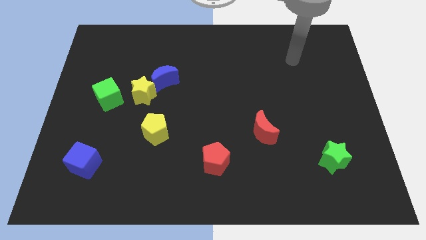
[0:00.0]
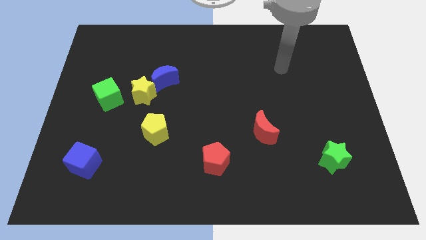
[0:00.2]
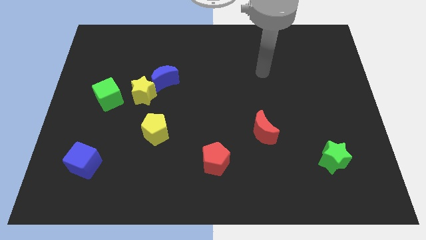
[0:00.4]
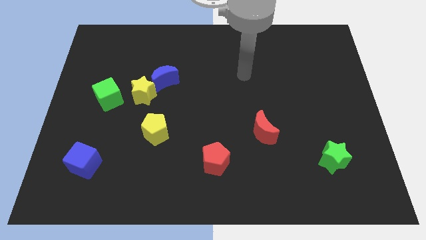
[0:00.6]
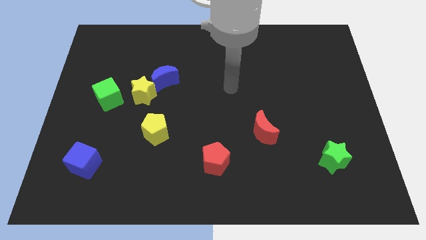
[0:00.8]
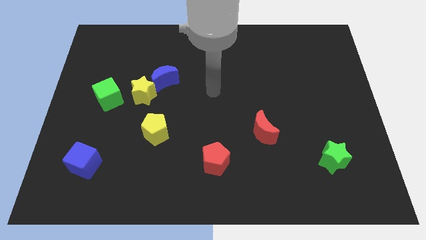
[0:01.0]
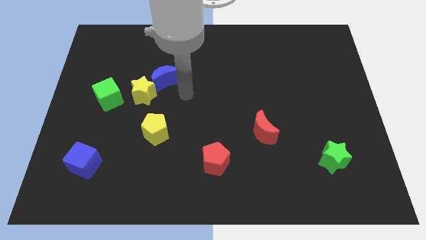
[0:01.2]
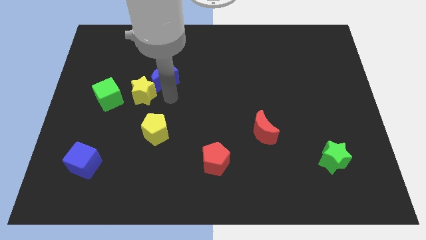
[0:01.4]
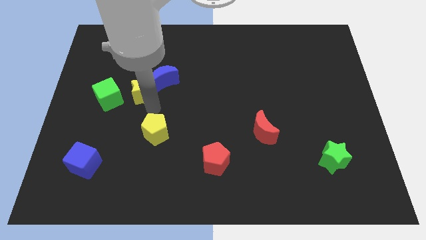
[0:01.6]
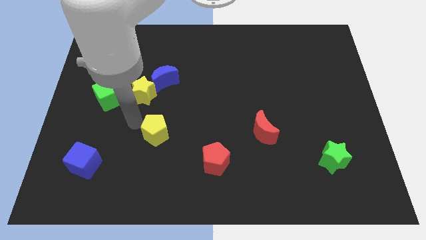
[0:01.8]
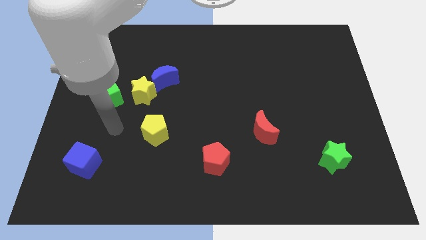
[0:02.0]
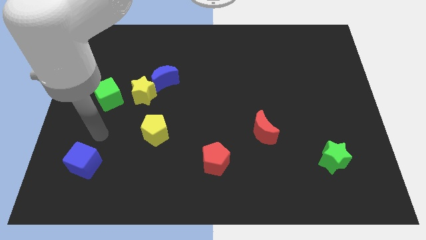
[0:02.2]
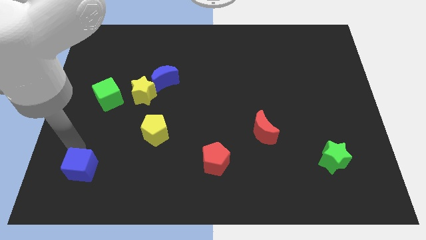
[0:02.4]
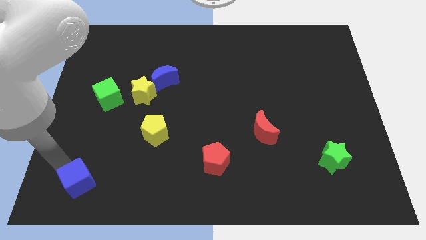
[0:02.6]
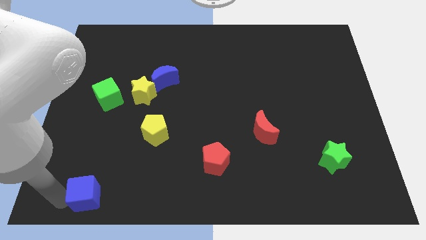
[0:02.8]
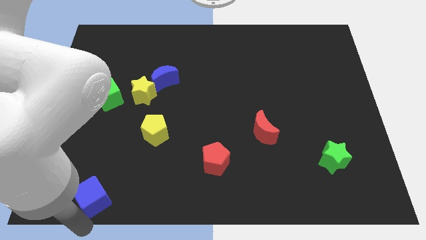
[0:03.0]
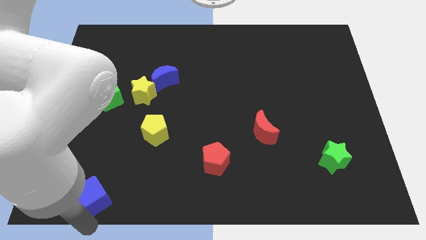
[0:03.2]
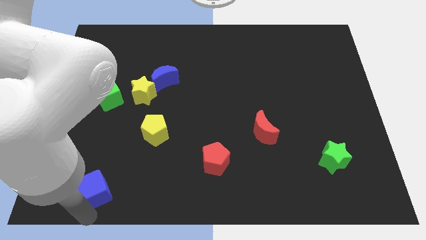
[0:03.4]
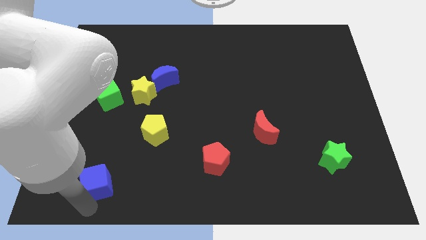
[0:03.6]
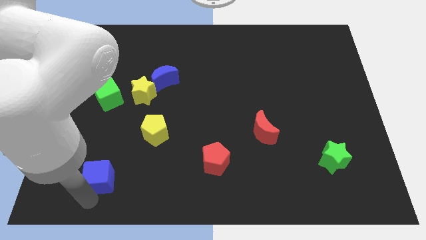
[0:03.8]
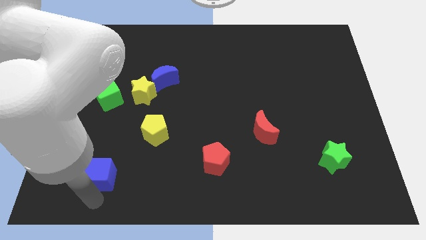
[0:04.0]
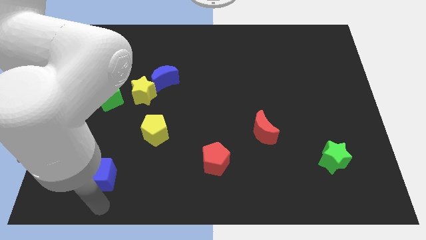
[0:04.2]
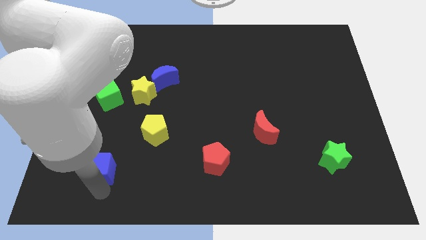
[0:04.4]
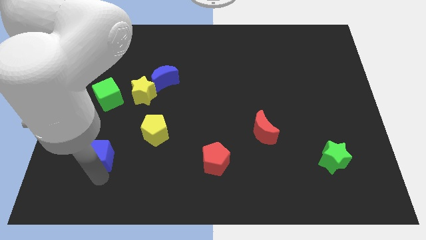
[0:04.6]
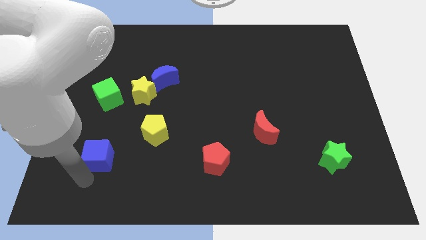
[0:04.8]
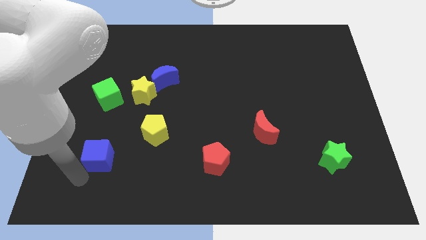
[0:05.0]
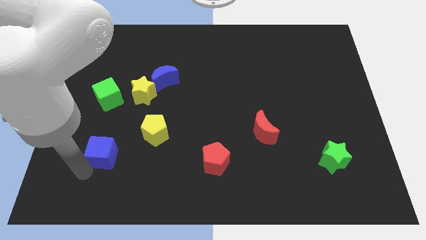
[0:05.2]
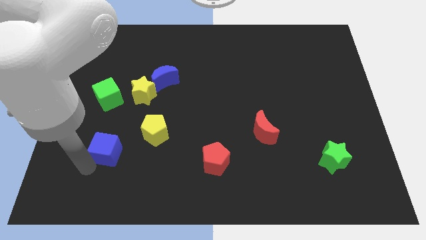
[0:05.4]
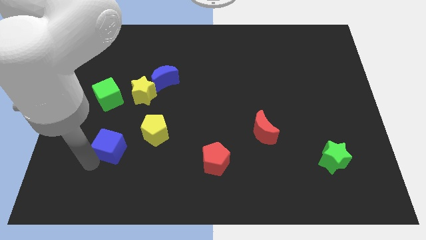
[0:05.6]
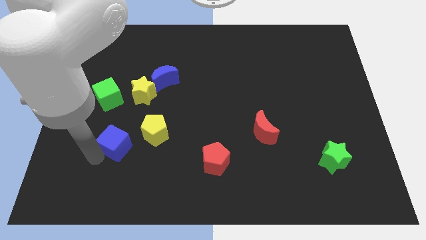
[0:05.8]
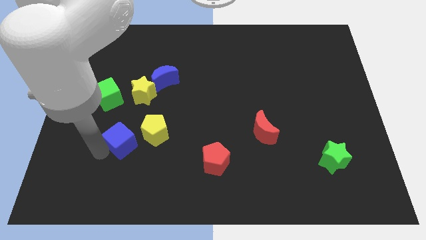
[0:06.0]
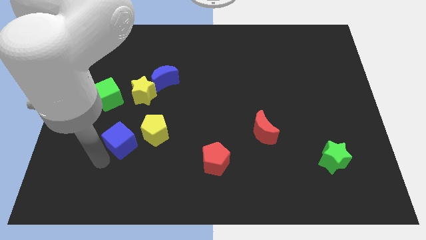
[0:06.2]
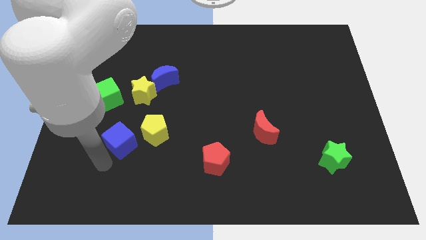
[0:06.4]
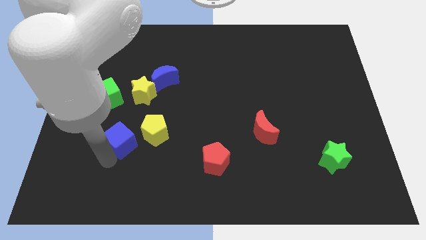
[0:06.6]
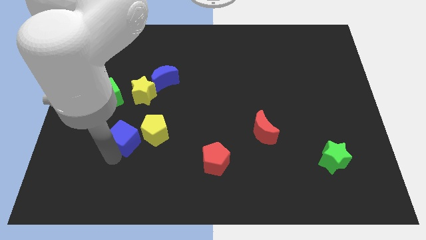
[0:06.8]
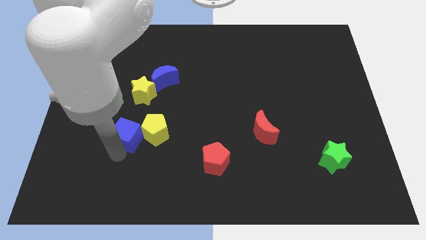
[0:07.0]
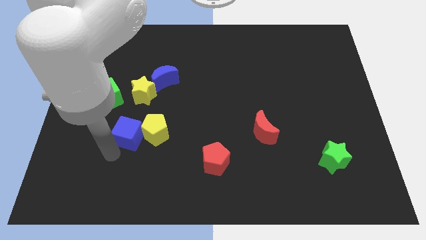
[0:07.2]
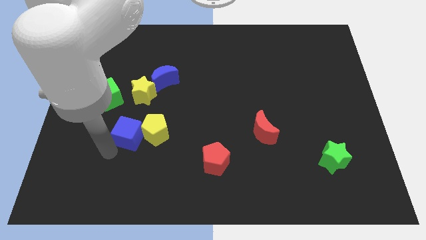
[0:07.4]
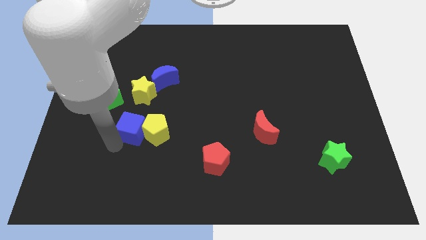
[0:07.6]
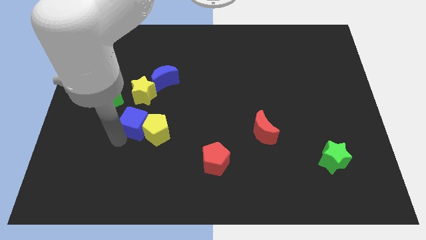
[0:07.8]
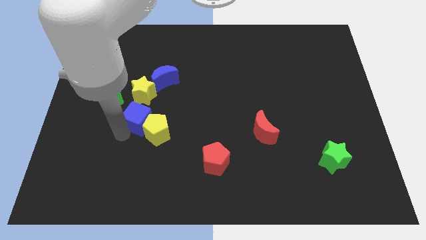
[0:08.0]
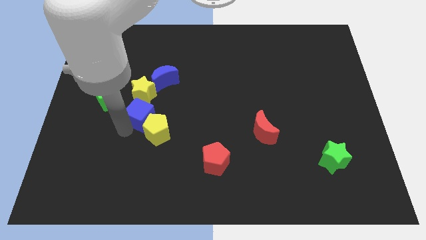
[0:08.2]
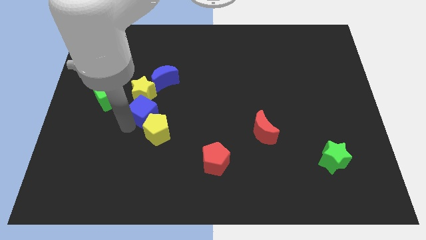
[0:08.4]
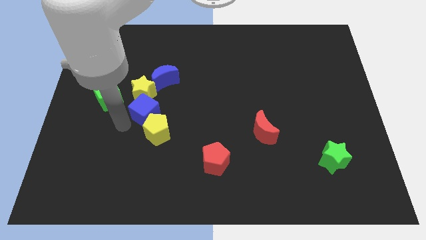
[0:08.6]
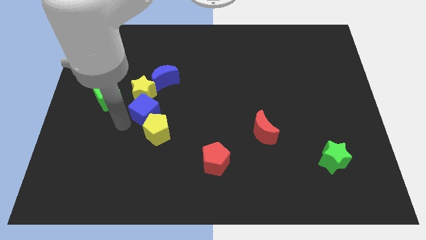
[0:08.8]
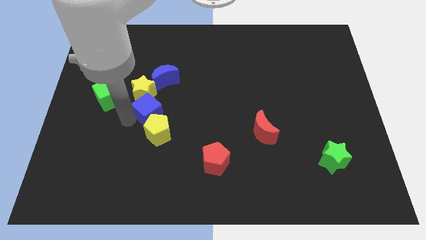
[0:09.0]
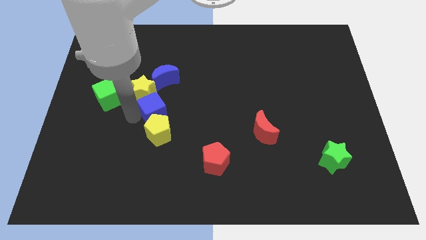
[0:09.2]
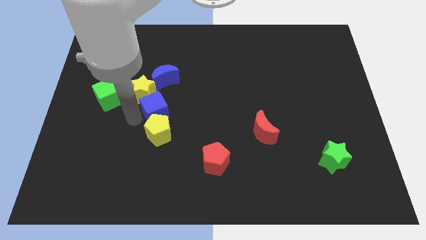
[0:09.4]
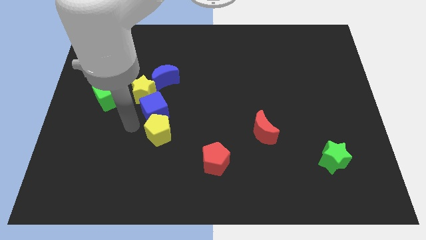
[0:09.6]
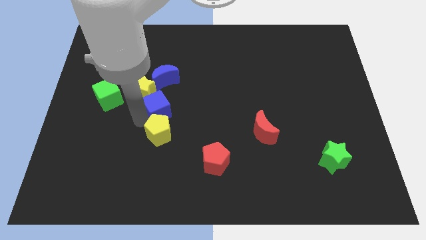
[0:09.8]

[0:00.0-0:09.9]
slide the blue cube upwards and then to the right

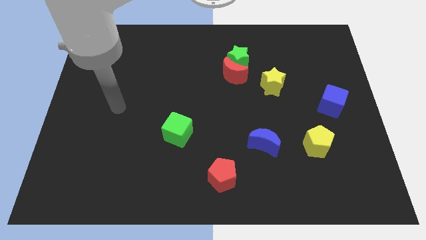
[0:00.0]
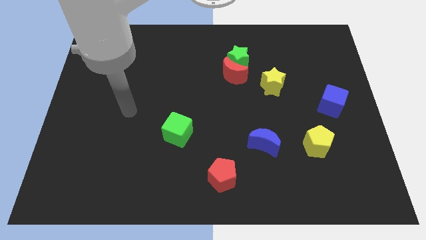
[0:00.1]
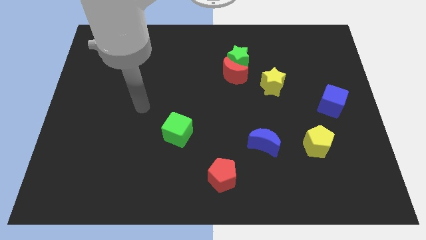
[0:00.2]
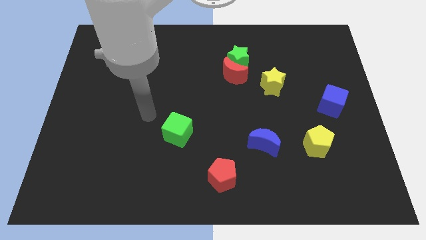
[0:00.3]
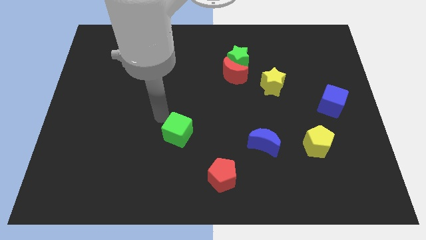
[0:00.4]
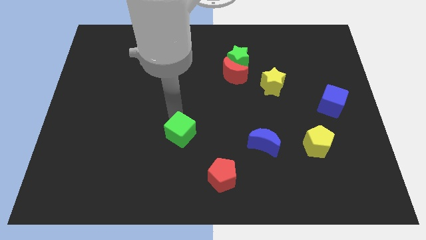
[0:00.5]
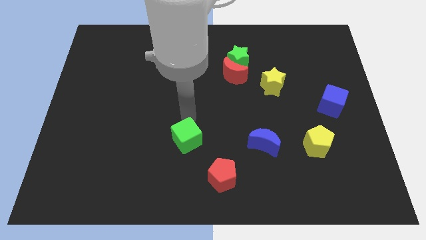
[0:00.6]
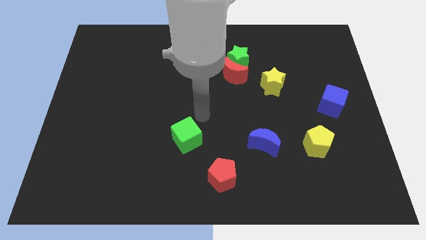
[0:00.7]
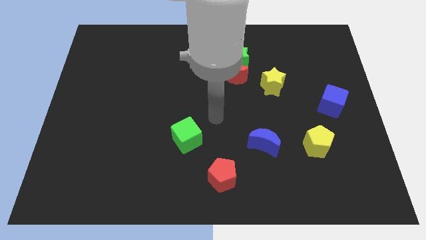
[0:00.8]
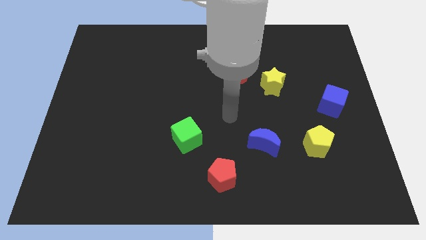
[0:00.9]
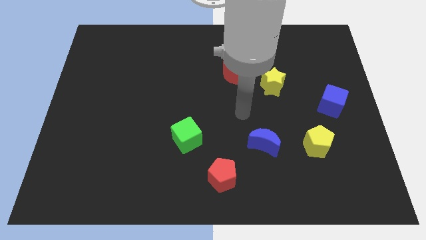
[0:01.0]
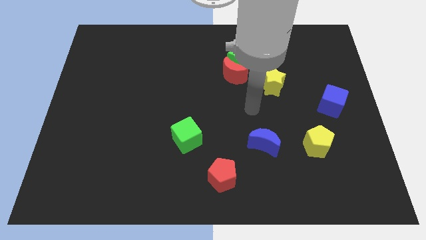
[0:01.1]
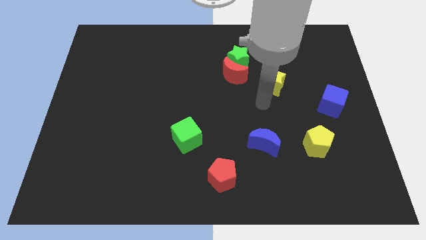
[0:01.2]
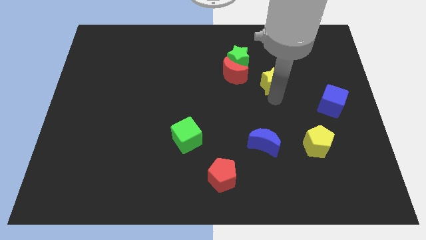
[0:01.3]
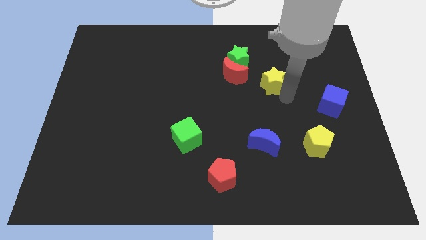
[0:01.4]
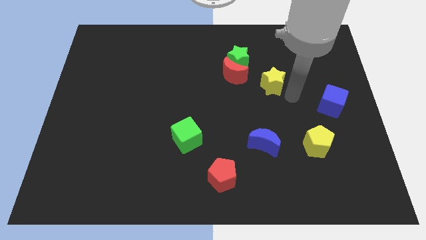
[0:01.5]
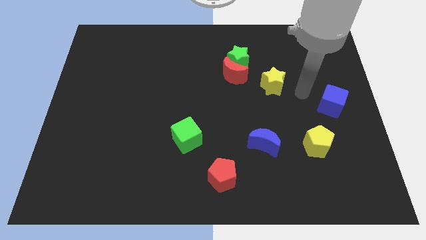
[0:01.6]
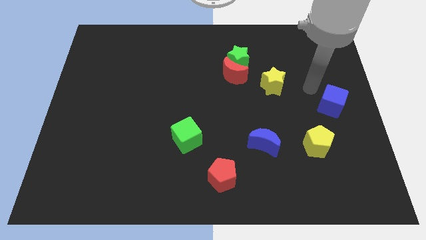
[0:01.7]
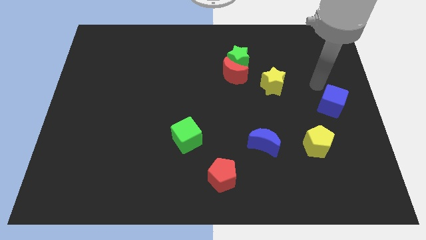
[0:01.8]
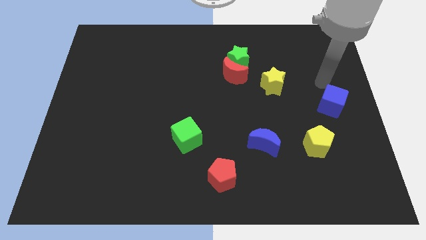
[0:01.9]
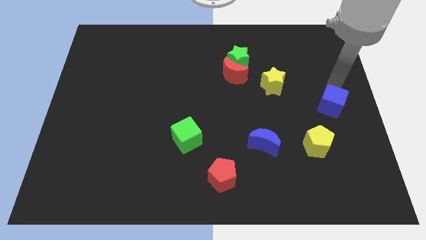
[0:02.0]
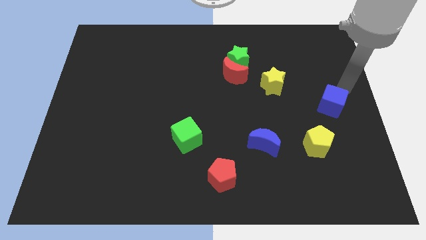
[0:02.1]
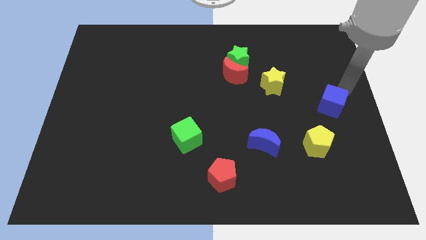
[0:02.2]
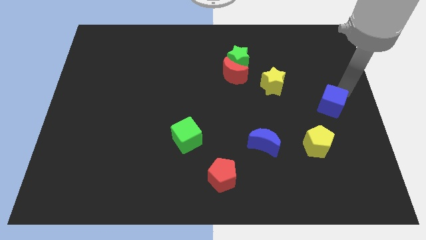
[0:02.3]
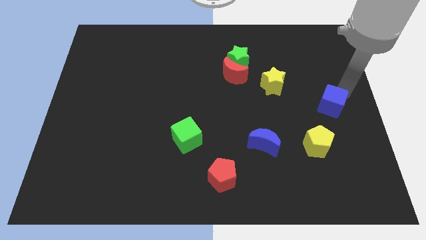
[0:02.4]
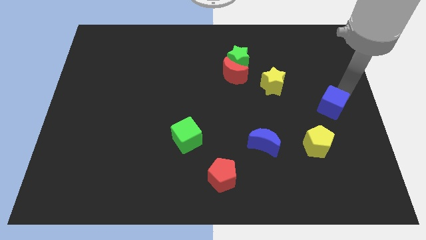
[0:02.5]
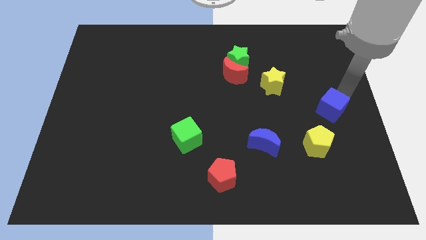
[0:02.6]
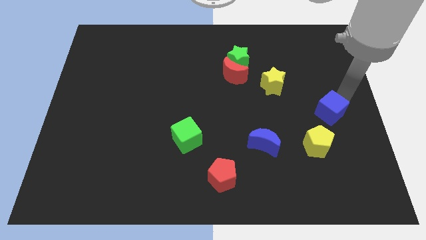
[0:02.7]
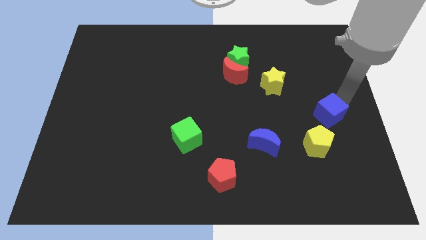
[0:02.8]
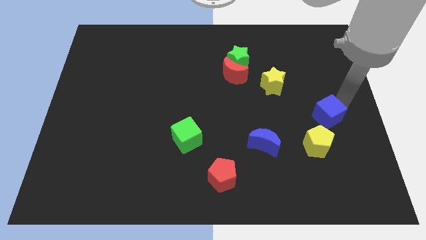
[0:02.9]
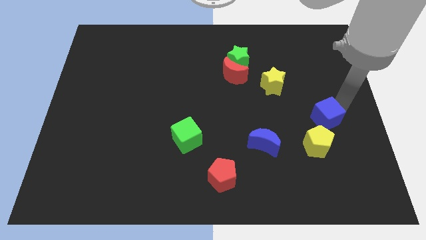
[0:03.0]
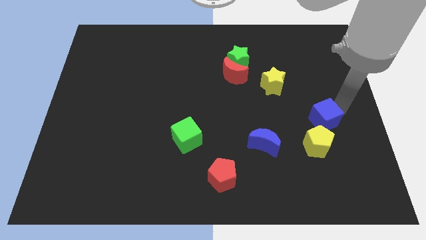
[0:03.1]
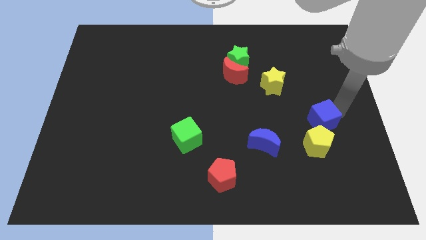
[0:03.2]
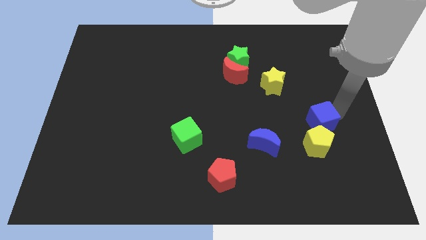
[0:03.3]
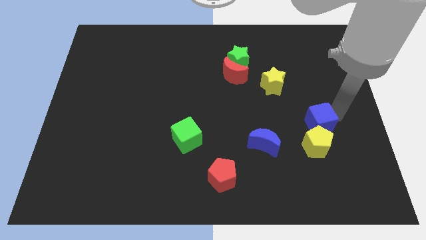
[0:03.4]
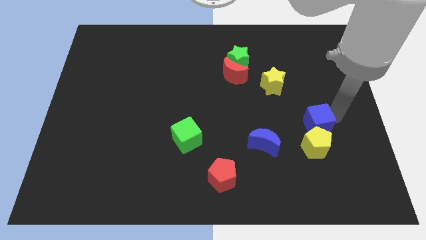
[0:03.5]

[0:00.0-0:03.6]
slightly push the blue cube down and left
